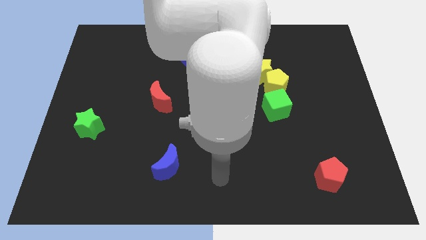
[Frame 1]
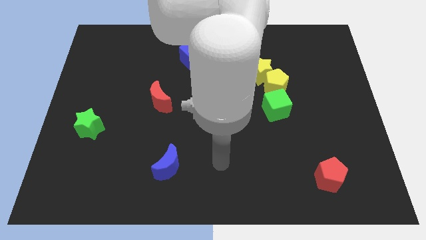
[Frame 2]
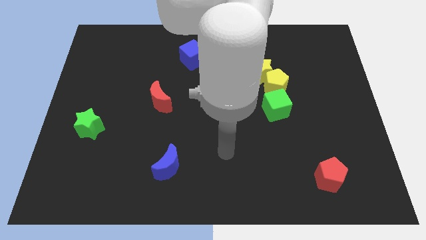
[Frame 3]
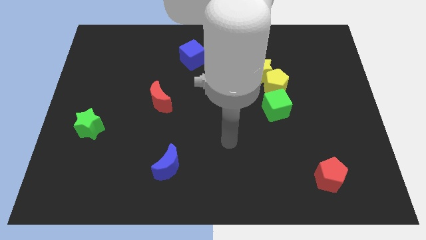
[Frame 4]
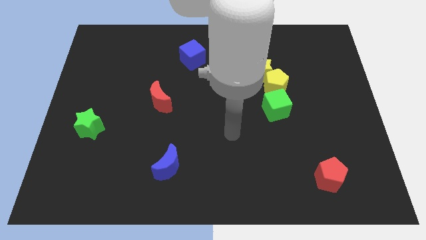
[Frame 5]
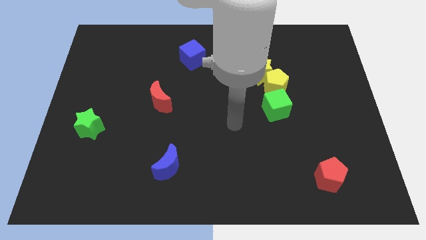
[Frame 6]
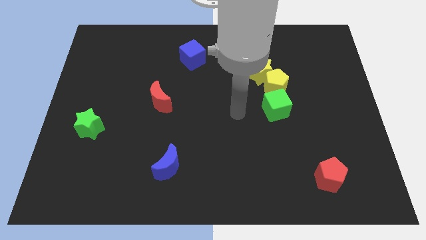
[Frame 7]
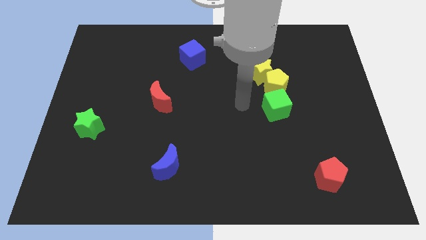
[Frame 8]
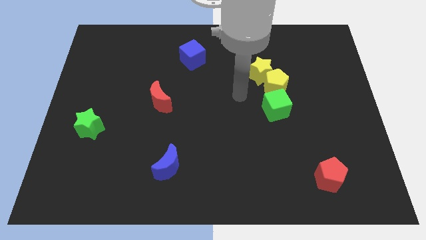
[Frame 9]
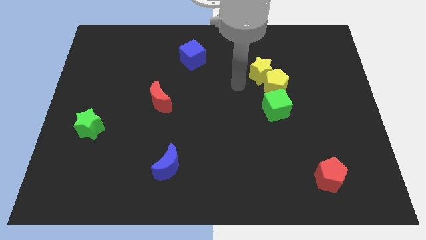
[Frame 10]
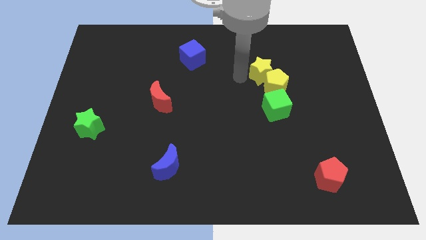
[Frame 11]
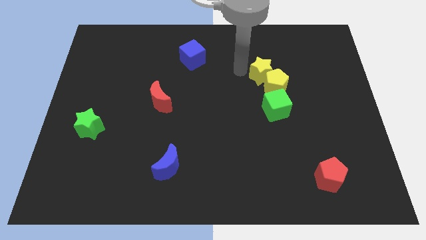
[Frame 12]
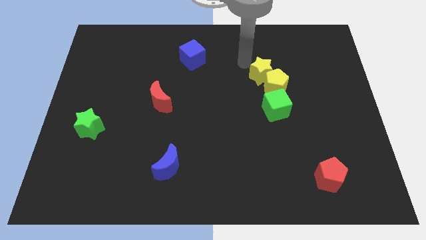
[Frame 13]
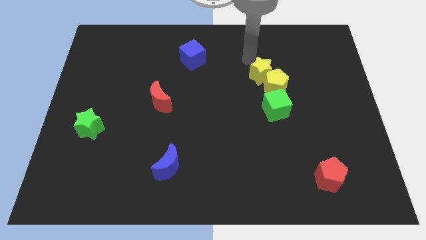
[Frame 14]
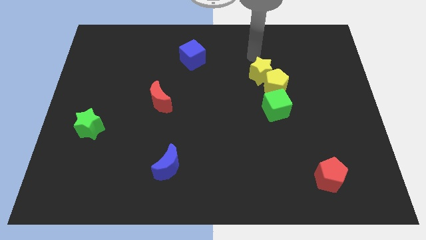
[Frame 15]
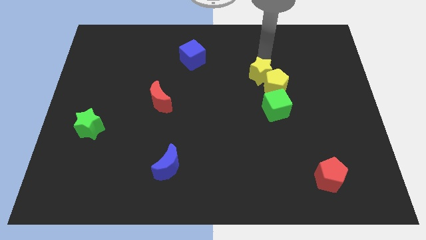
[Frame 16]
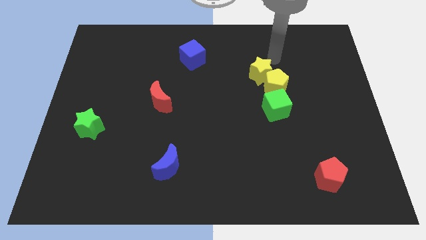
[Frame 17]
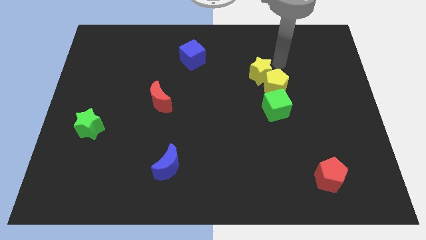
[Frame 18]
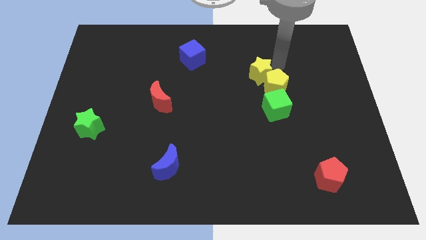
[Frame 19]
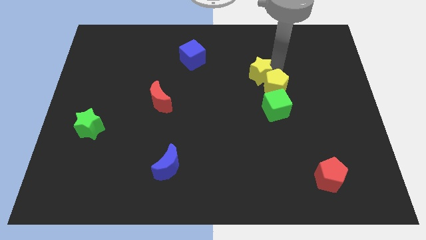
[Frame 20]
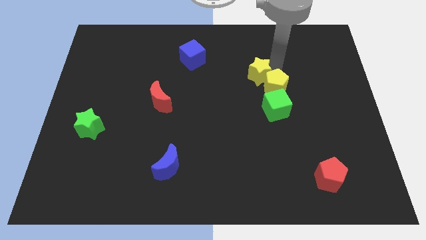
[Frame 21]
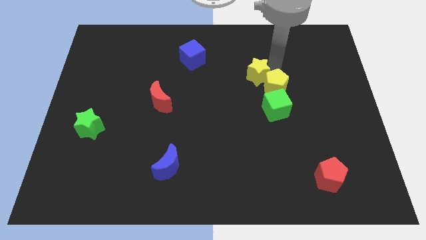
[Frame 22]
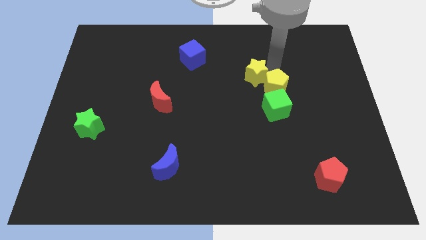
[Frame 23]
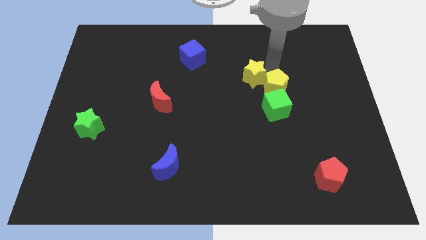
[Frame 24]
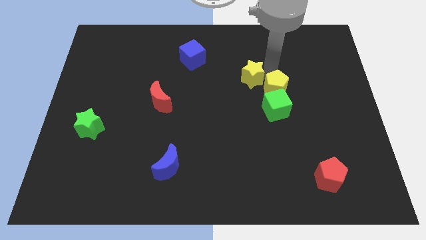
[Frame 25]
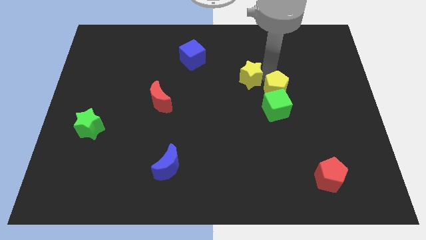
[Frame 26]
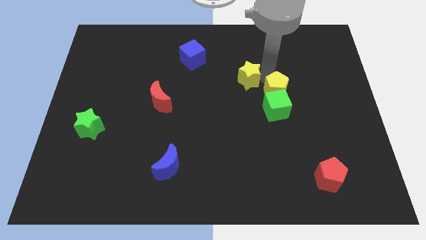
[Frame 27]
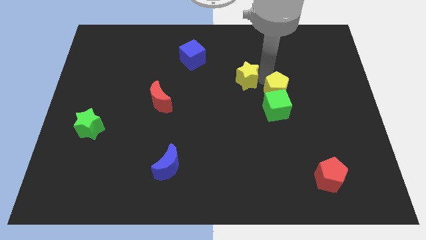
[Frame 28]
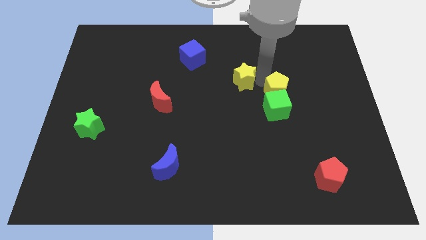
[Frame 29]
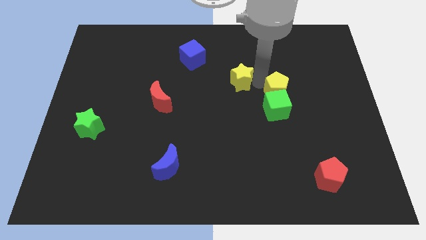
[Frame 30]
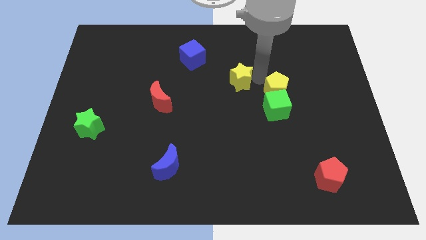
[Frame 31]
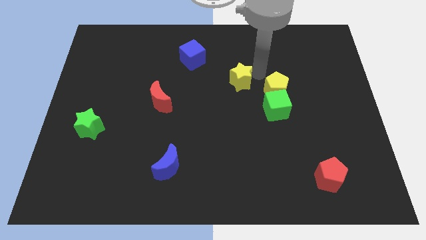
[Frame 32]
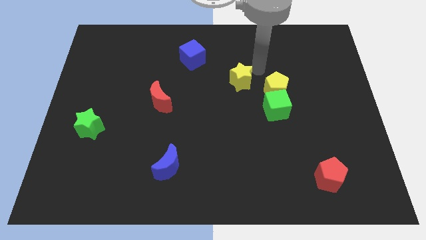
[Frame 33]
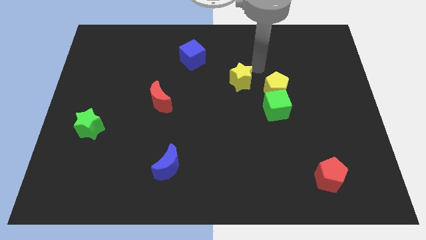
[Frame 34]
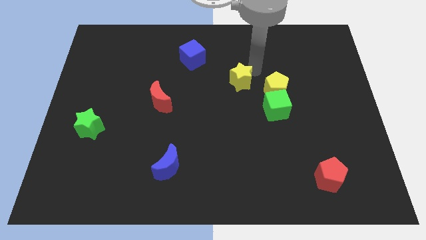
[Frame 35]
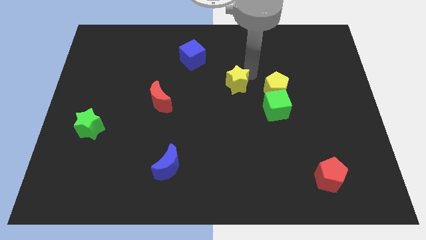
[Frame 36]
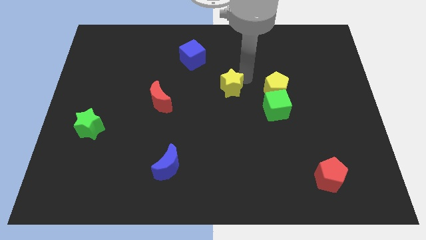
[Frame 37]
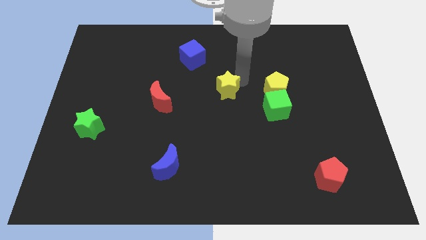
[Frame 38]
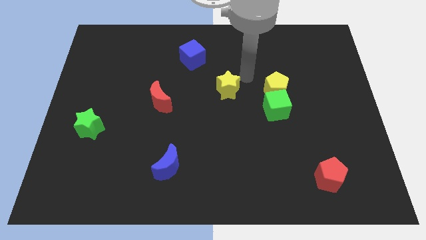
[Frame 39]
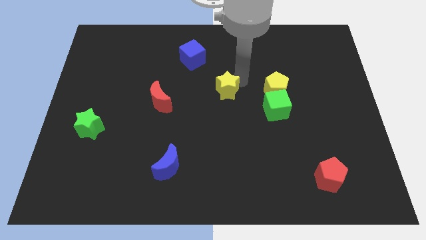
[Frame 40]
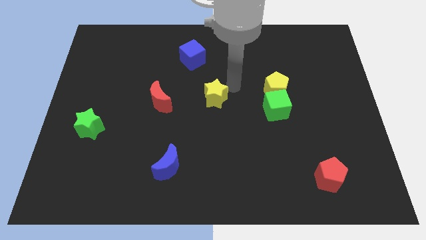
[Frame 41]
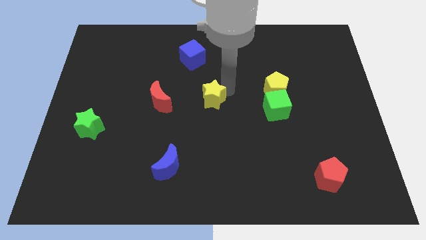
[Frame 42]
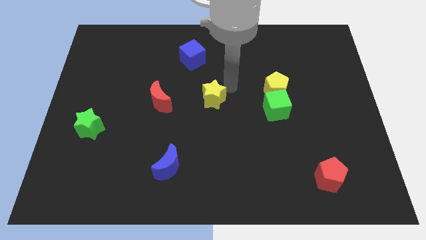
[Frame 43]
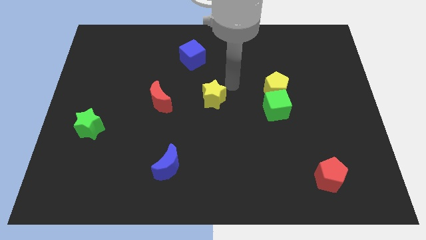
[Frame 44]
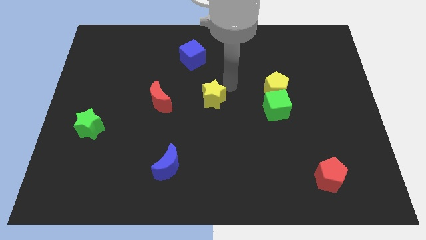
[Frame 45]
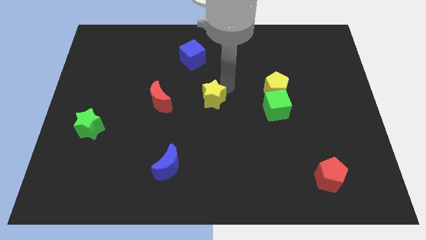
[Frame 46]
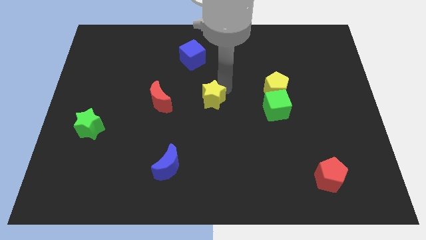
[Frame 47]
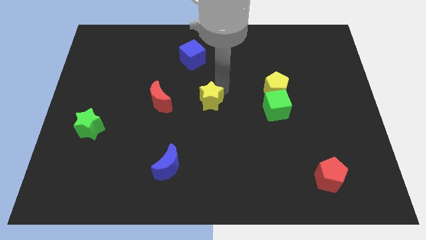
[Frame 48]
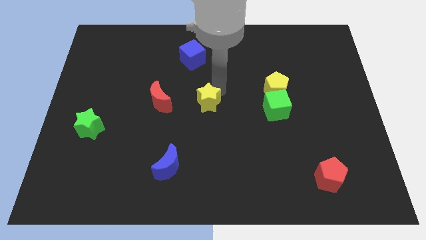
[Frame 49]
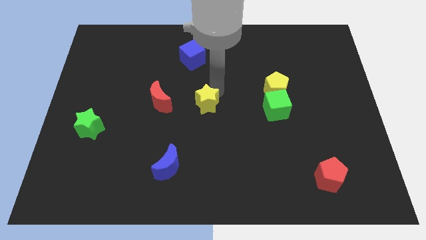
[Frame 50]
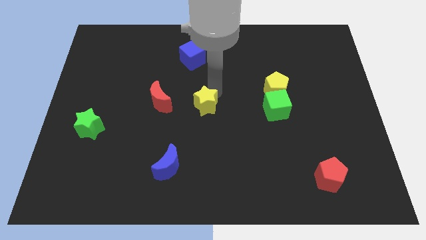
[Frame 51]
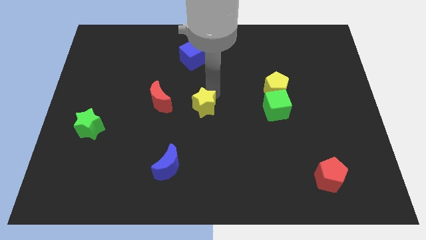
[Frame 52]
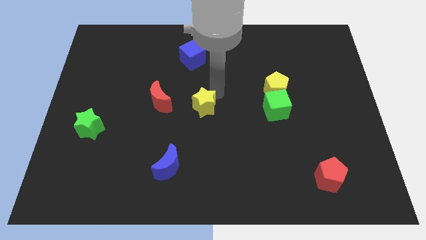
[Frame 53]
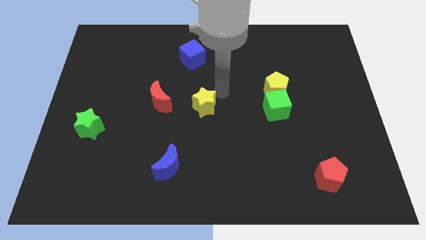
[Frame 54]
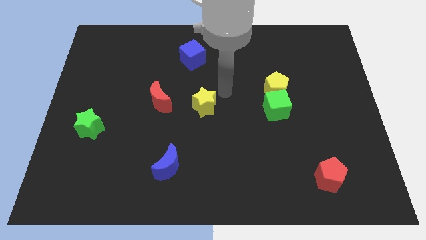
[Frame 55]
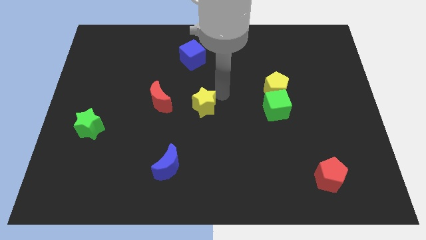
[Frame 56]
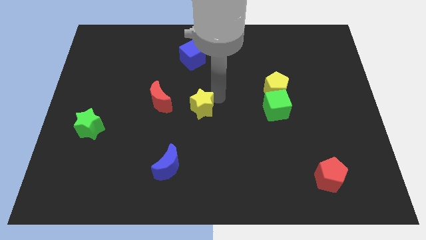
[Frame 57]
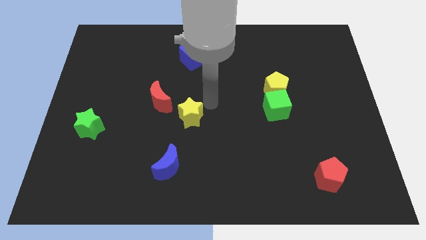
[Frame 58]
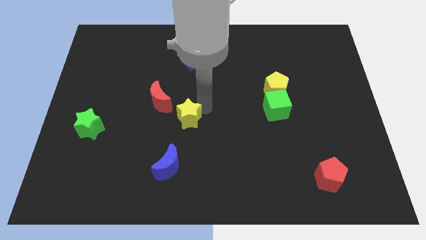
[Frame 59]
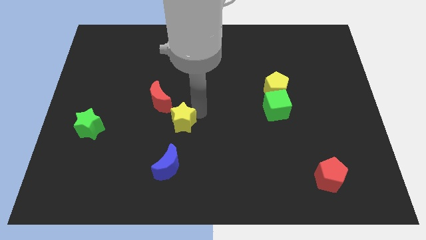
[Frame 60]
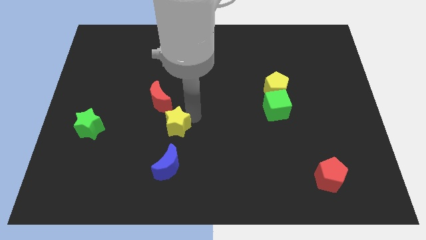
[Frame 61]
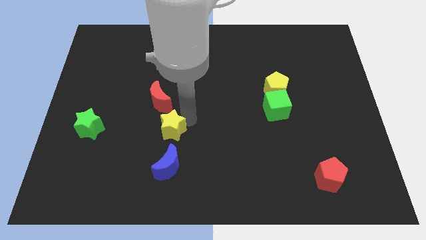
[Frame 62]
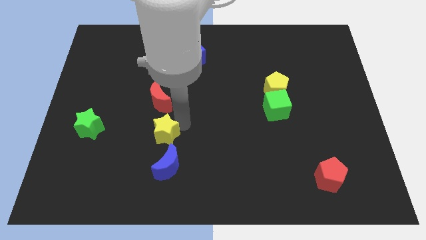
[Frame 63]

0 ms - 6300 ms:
slide the yellow star to the top left side of the blue moon

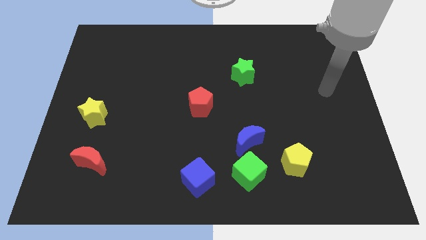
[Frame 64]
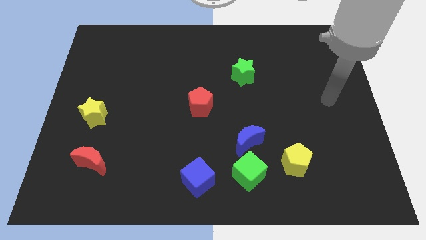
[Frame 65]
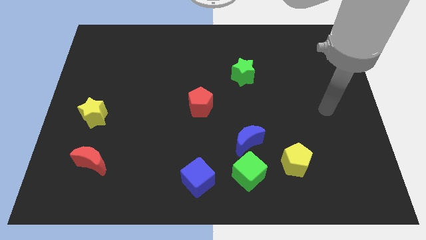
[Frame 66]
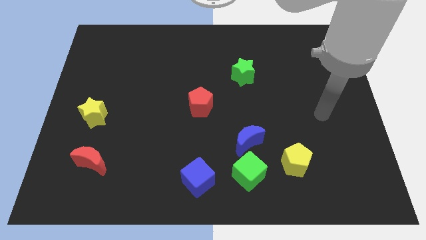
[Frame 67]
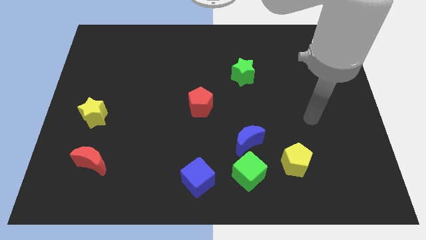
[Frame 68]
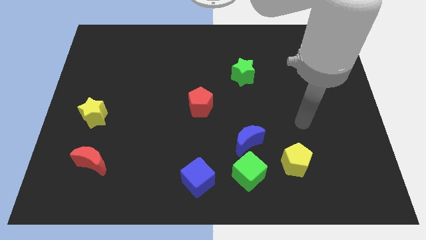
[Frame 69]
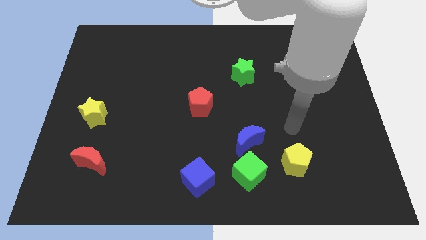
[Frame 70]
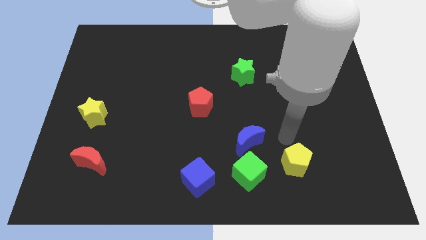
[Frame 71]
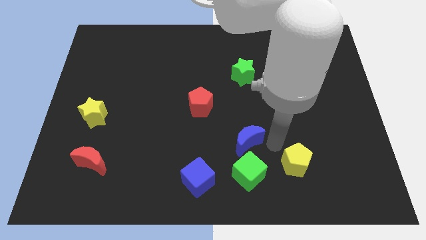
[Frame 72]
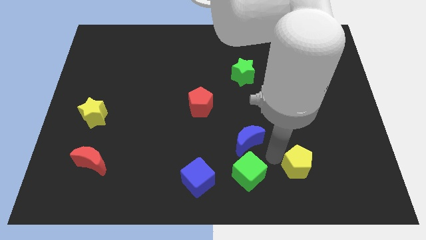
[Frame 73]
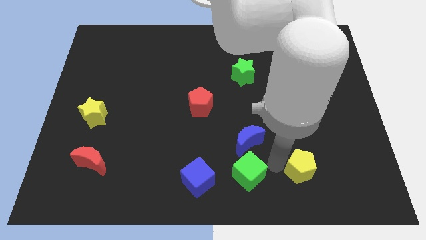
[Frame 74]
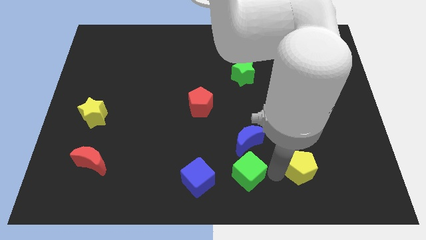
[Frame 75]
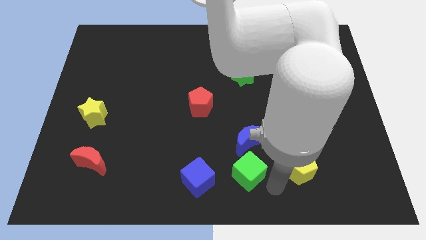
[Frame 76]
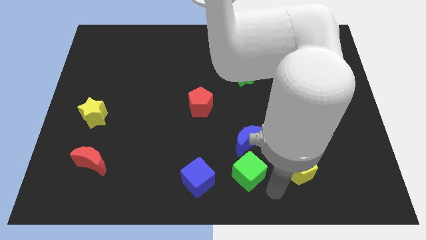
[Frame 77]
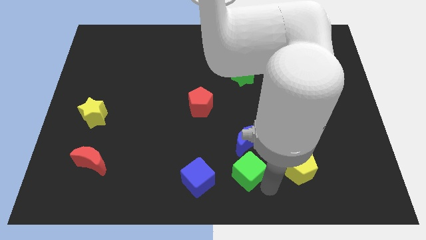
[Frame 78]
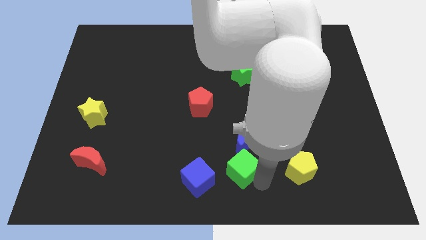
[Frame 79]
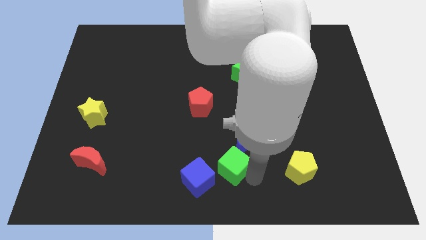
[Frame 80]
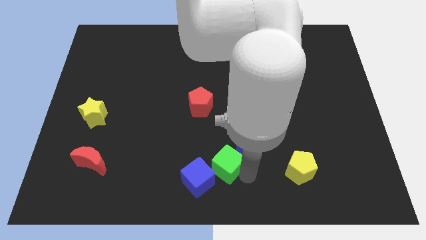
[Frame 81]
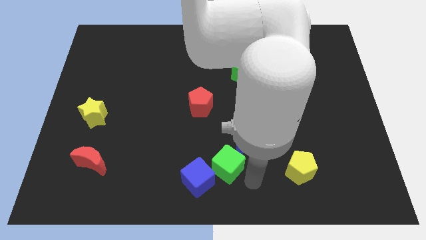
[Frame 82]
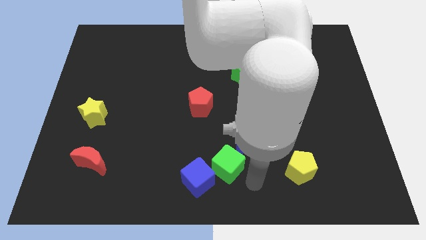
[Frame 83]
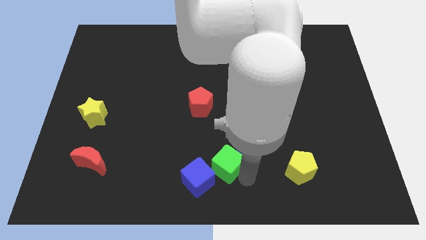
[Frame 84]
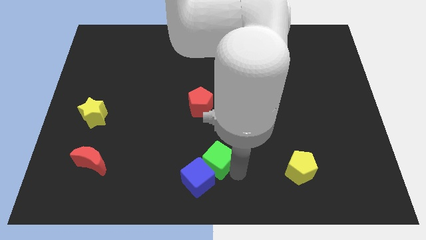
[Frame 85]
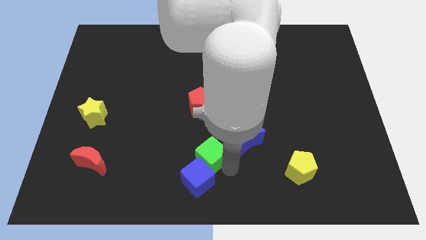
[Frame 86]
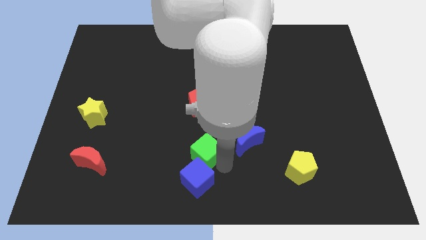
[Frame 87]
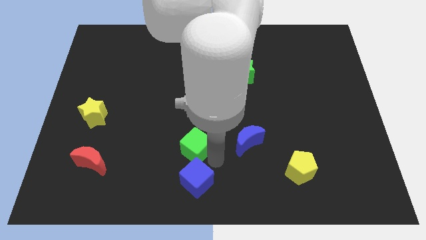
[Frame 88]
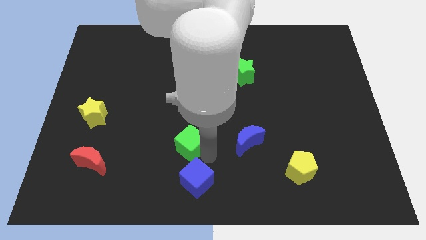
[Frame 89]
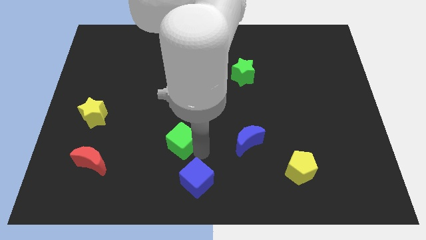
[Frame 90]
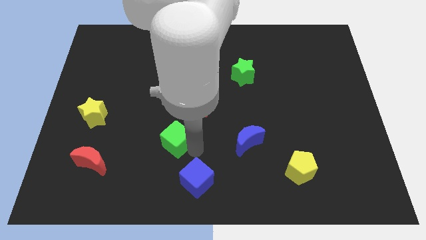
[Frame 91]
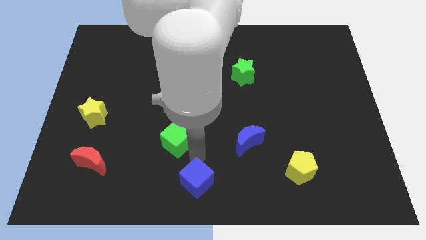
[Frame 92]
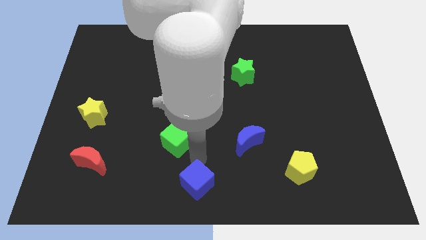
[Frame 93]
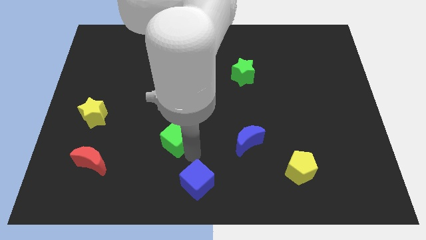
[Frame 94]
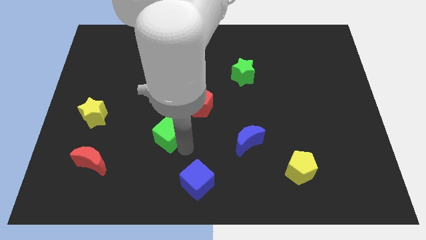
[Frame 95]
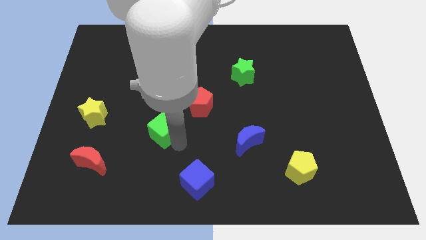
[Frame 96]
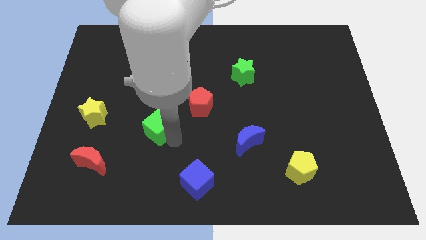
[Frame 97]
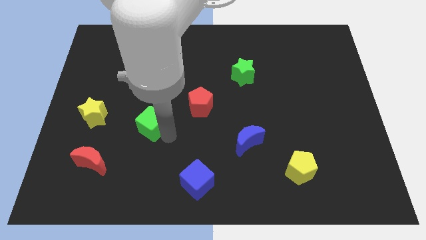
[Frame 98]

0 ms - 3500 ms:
slide the green cube just right of the yellow star
